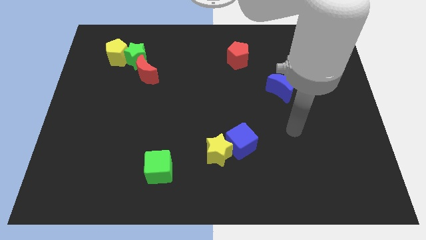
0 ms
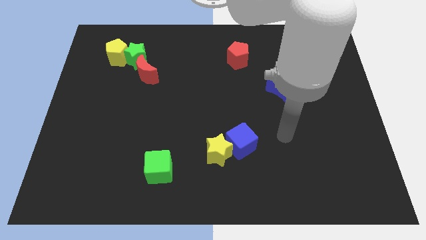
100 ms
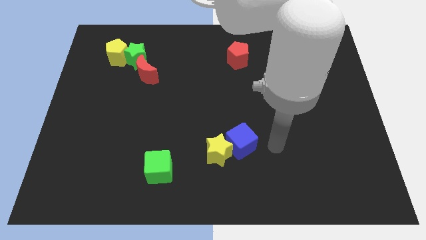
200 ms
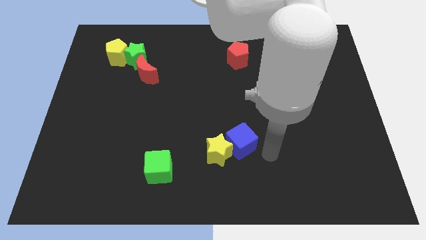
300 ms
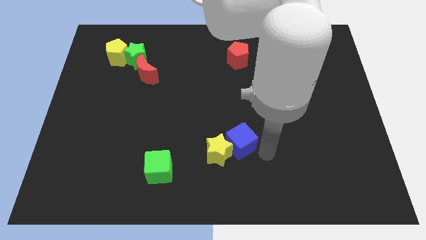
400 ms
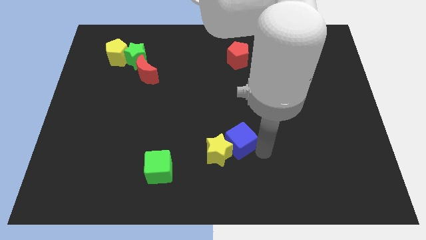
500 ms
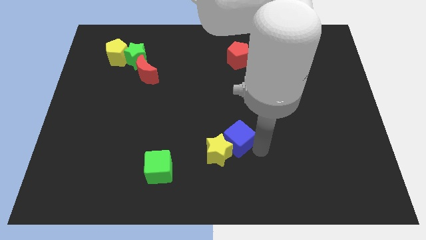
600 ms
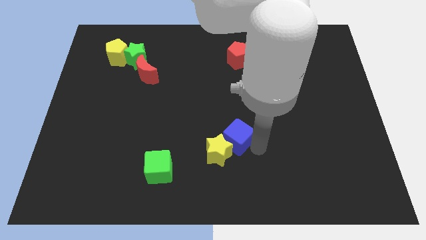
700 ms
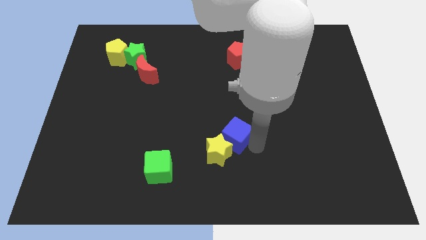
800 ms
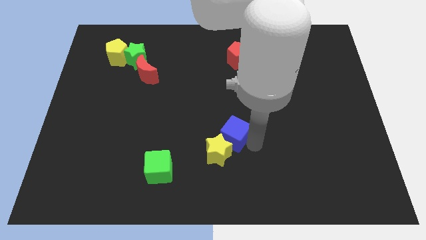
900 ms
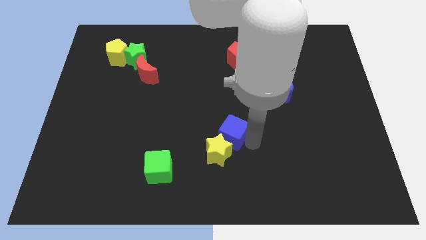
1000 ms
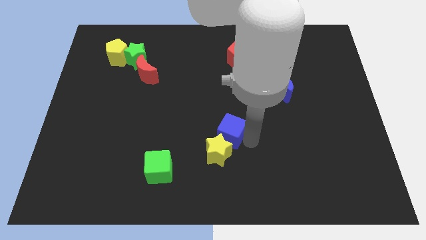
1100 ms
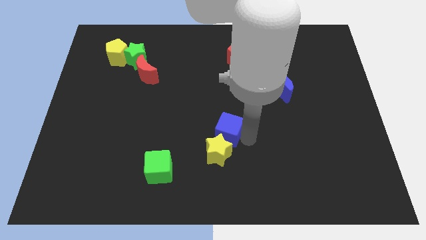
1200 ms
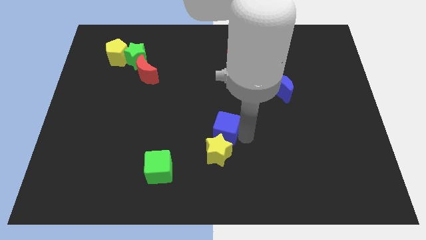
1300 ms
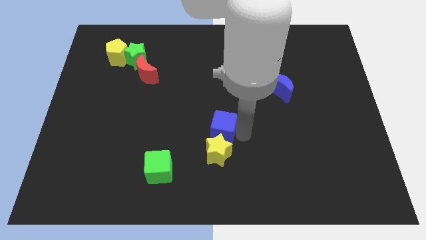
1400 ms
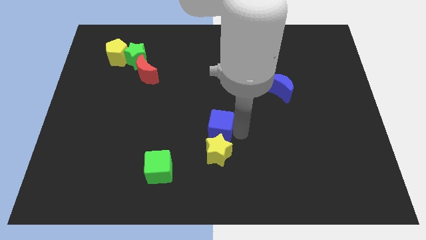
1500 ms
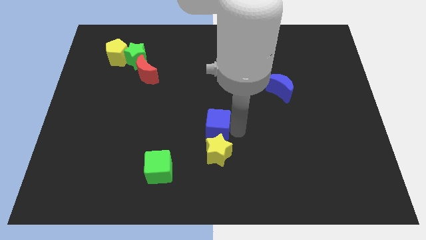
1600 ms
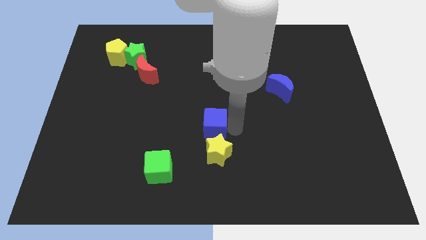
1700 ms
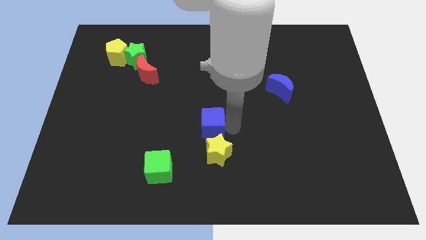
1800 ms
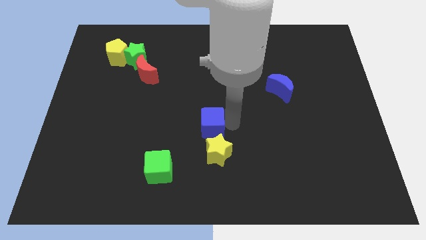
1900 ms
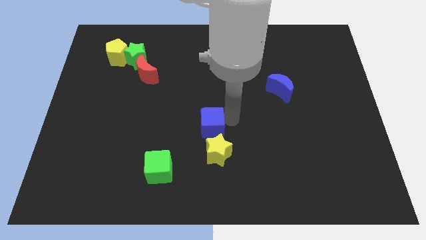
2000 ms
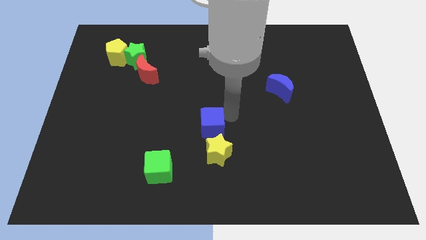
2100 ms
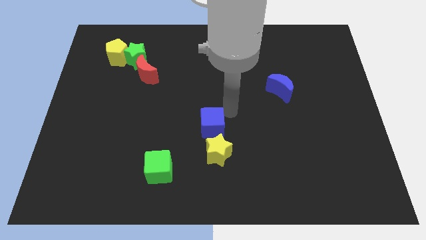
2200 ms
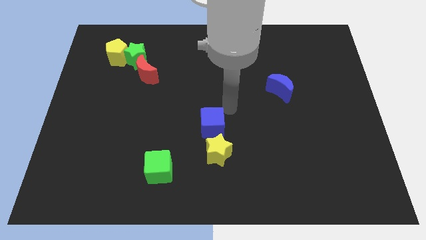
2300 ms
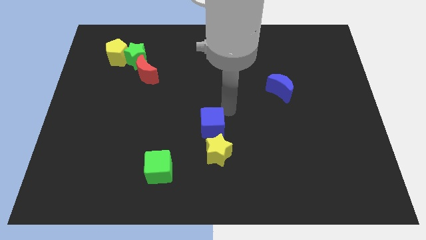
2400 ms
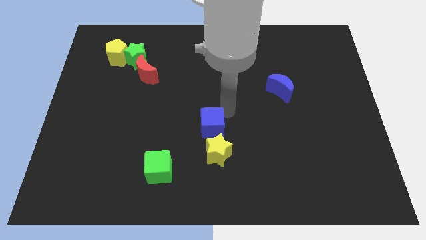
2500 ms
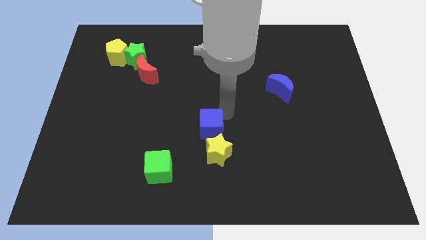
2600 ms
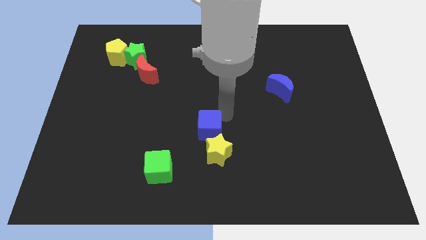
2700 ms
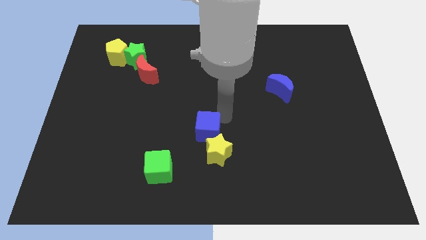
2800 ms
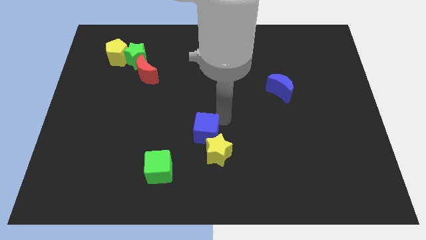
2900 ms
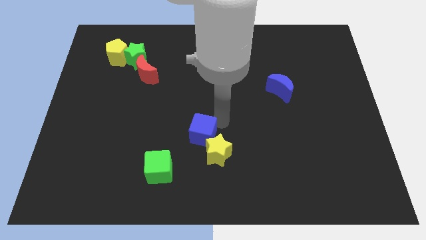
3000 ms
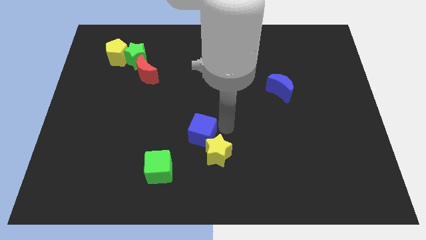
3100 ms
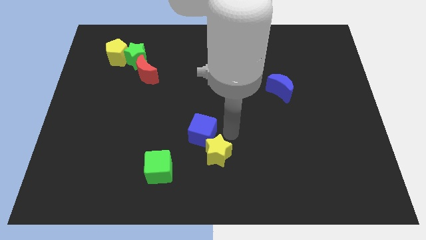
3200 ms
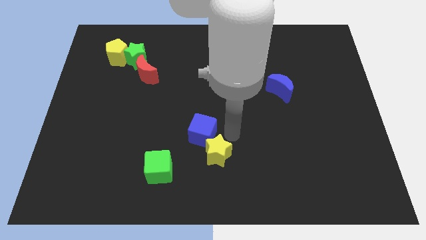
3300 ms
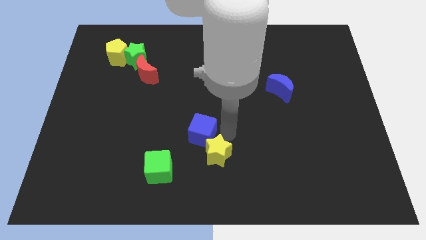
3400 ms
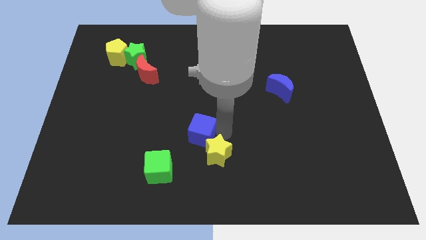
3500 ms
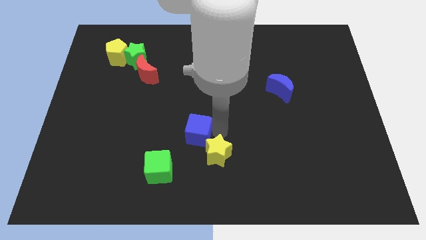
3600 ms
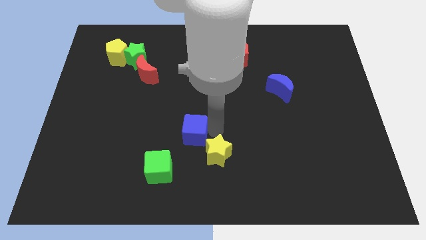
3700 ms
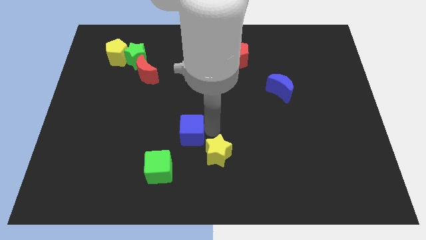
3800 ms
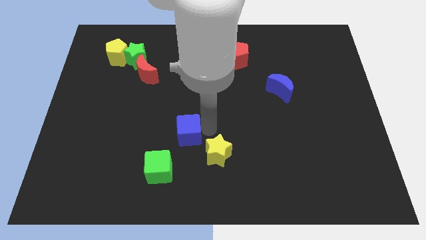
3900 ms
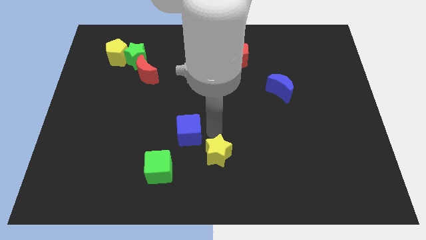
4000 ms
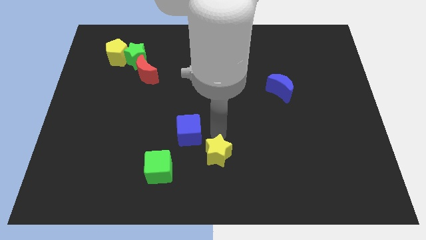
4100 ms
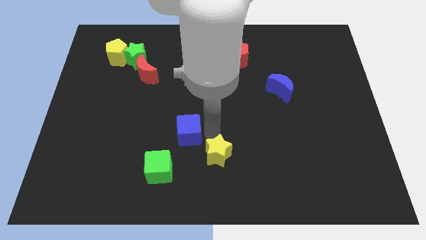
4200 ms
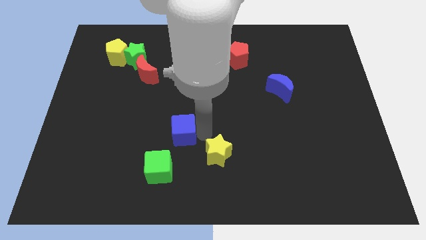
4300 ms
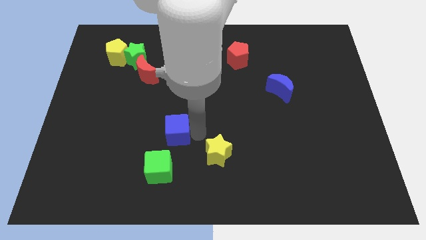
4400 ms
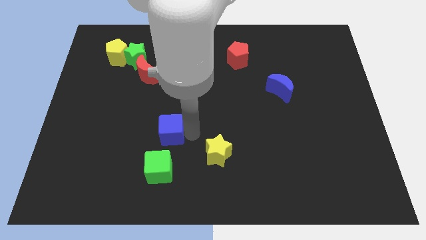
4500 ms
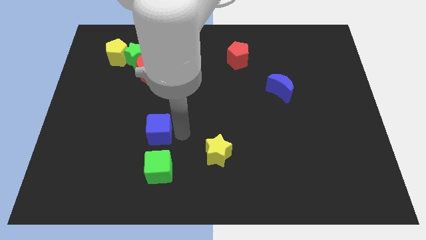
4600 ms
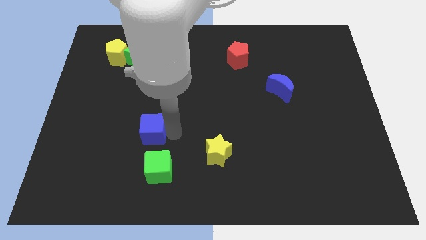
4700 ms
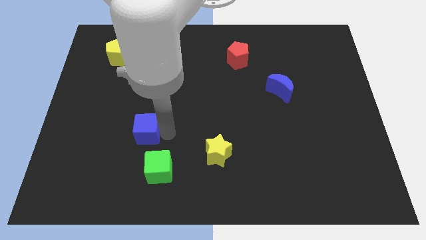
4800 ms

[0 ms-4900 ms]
move the blue cube left

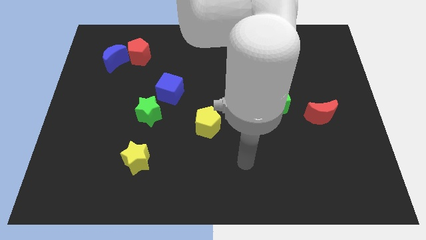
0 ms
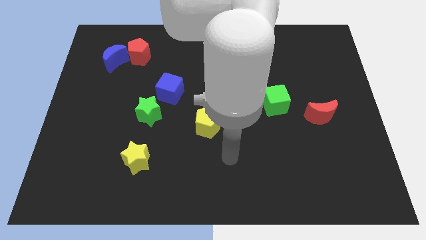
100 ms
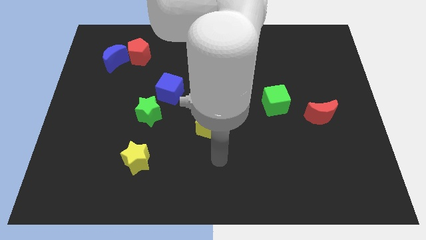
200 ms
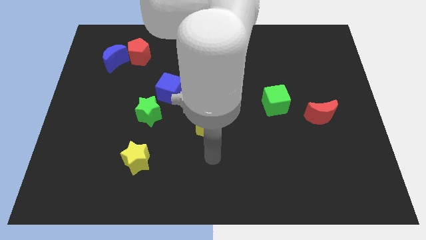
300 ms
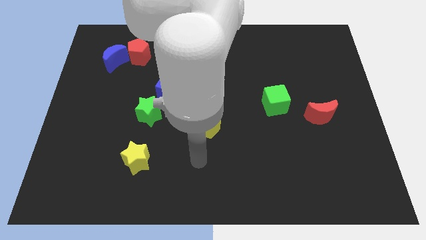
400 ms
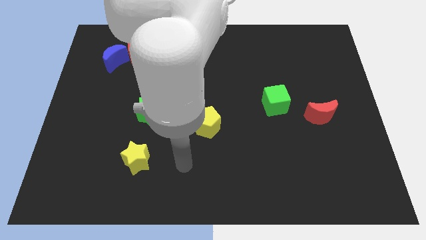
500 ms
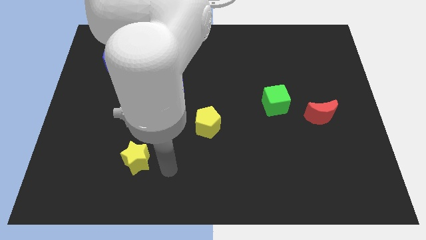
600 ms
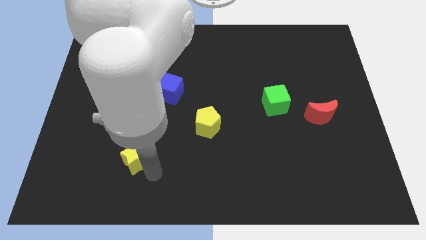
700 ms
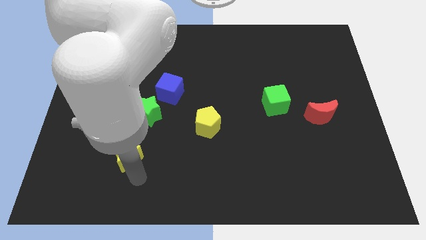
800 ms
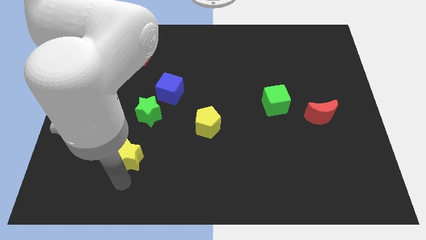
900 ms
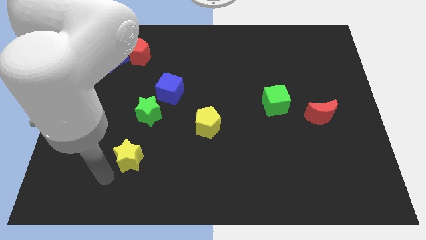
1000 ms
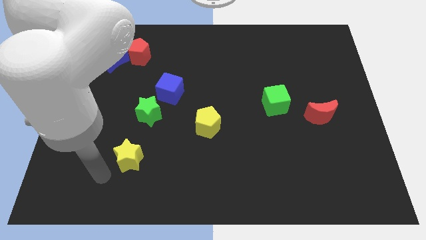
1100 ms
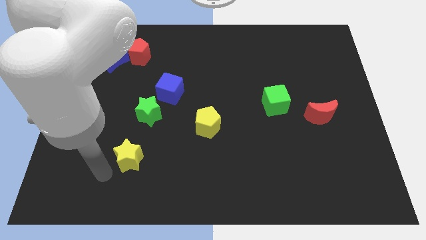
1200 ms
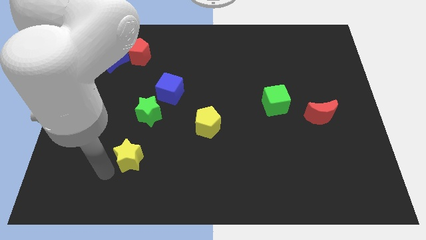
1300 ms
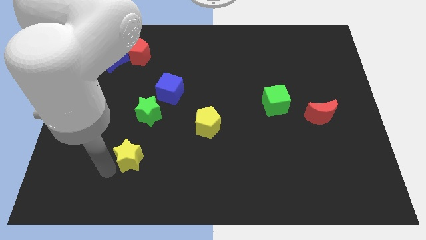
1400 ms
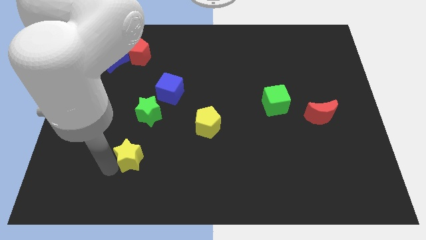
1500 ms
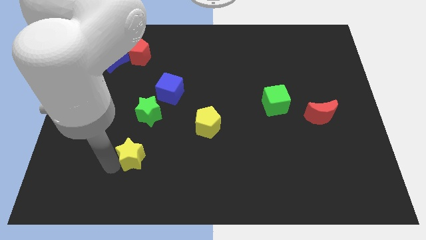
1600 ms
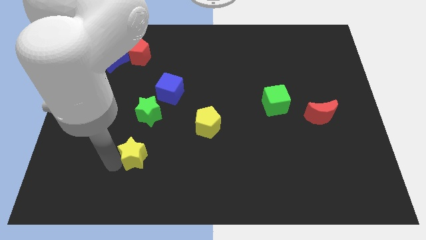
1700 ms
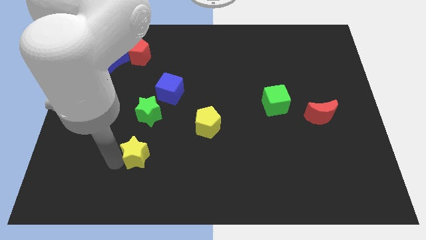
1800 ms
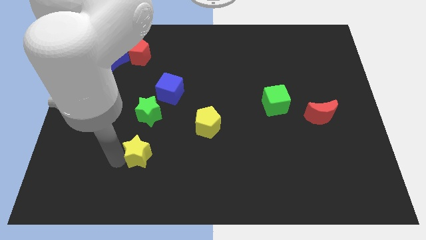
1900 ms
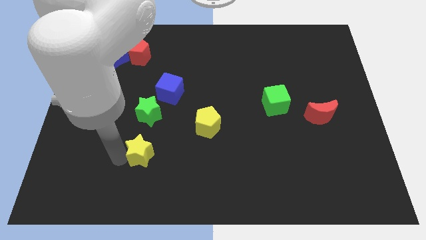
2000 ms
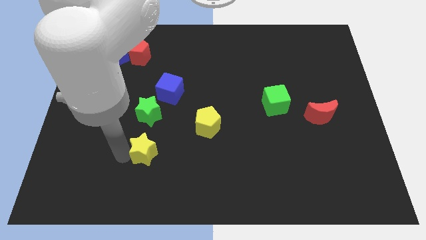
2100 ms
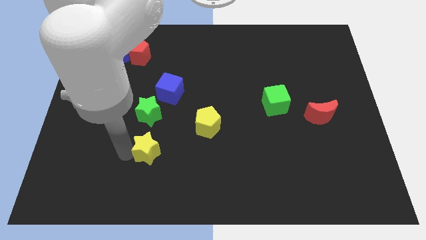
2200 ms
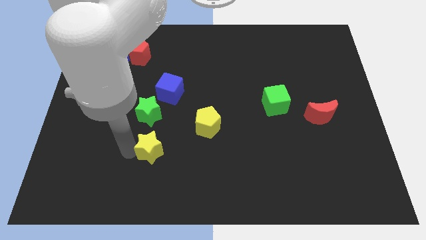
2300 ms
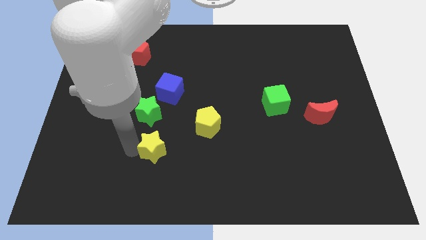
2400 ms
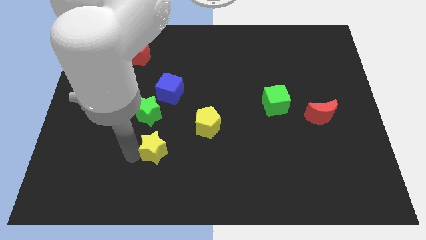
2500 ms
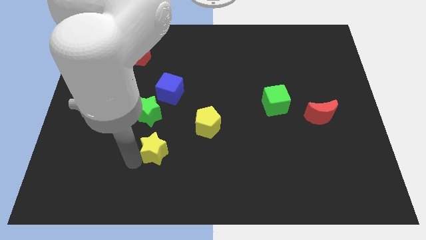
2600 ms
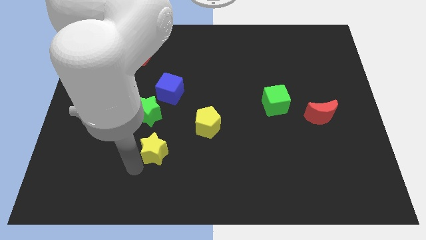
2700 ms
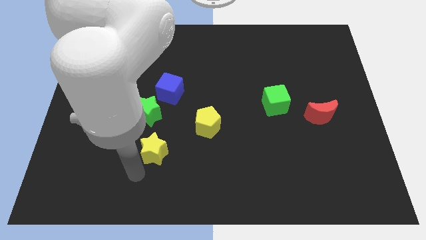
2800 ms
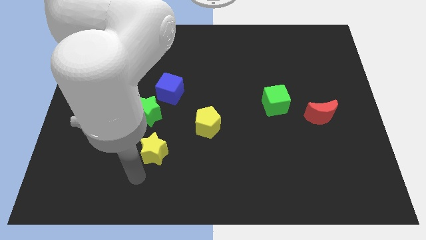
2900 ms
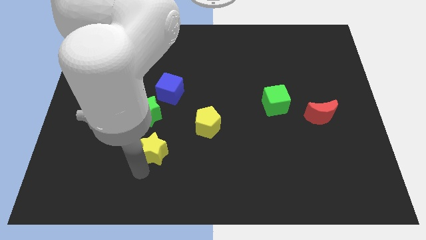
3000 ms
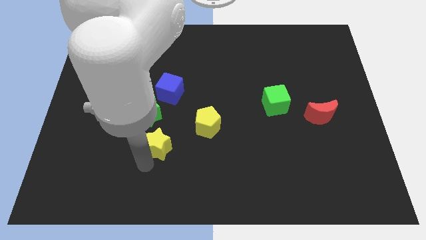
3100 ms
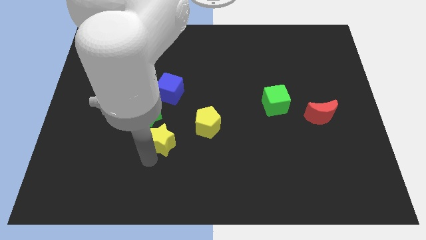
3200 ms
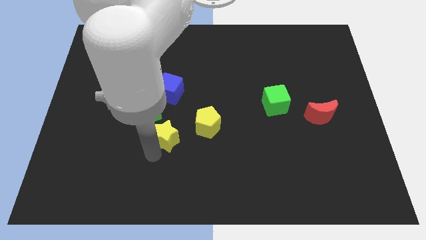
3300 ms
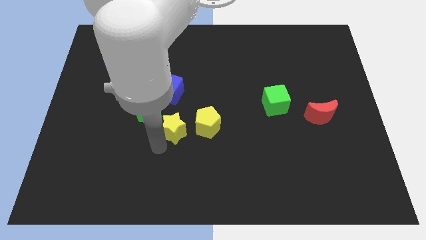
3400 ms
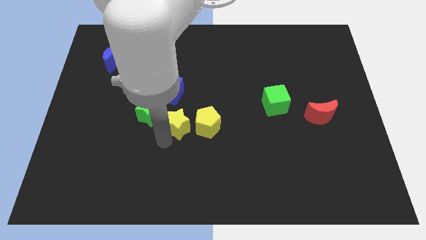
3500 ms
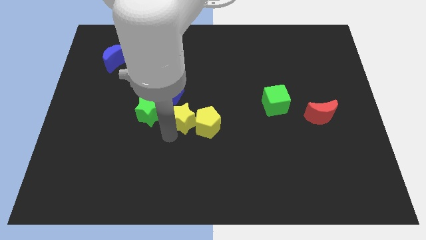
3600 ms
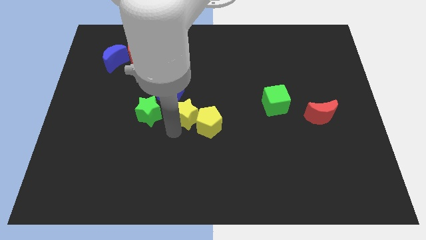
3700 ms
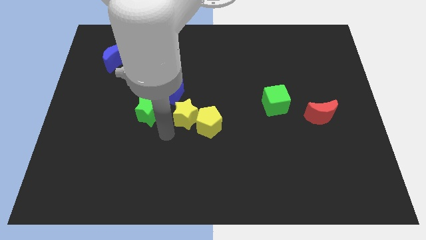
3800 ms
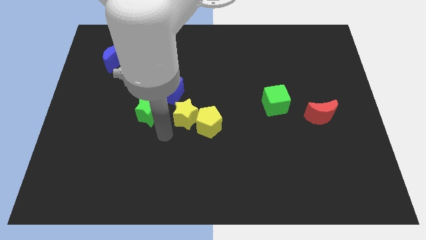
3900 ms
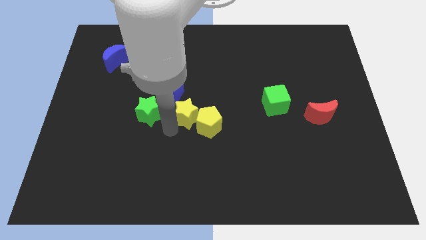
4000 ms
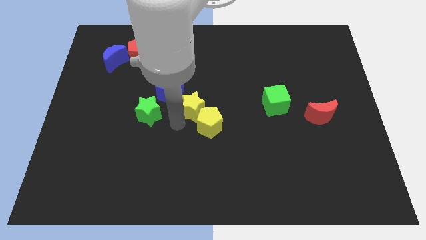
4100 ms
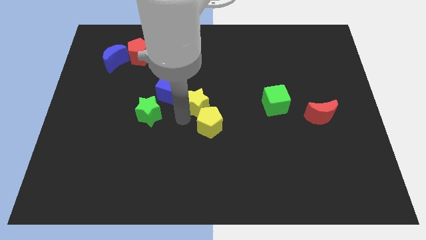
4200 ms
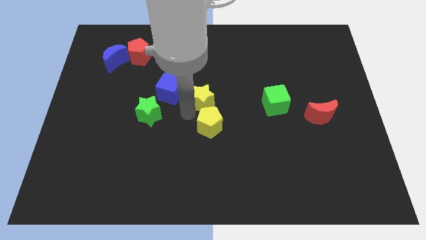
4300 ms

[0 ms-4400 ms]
move the yellow star up and then to the right
